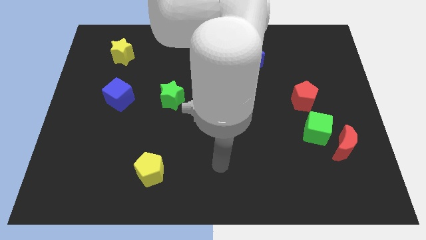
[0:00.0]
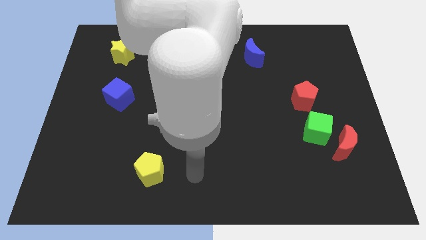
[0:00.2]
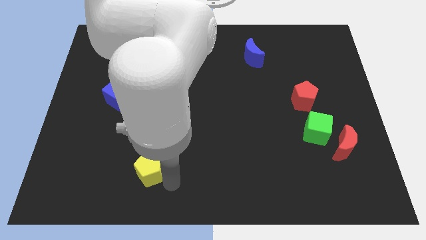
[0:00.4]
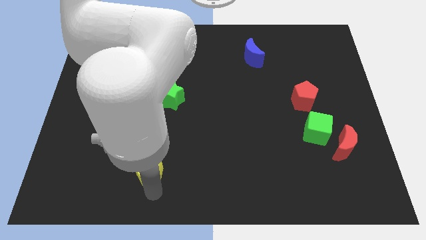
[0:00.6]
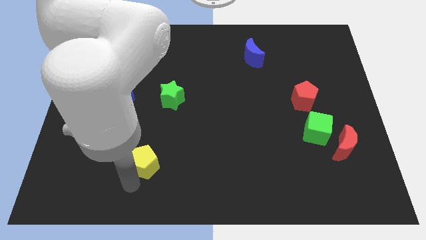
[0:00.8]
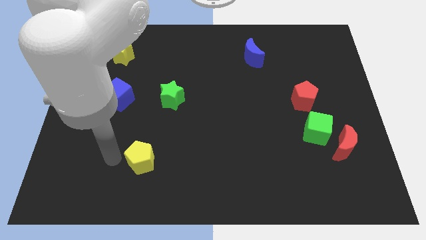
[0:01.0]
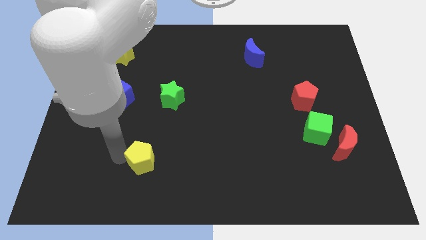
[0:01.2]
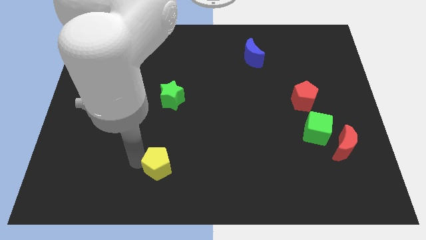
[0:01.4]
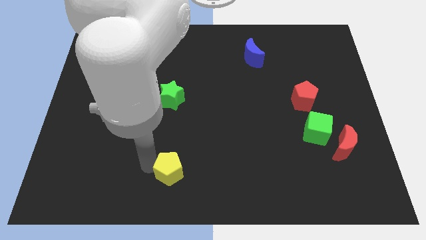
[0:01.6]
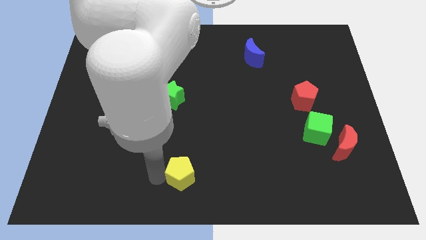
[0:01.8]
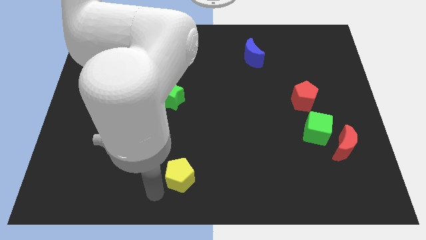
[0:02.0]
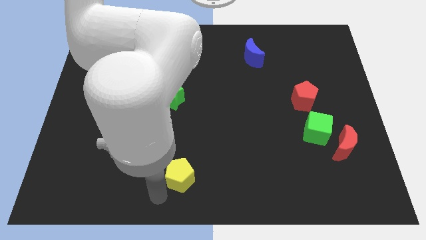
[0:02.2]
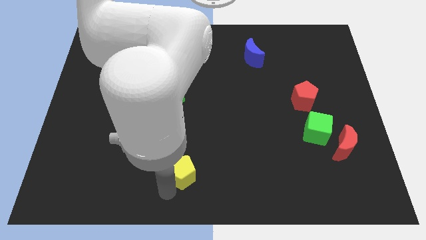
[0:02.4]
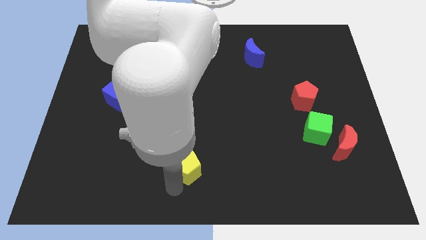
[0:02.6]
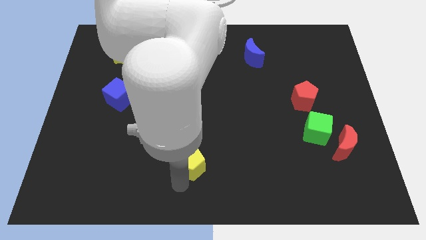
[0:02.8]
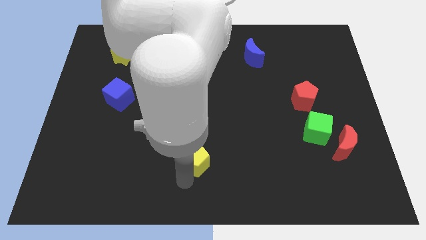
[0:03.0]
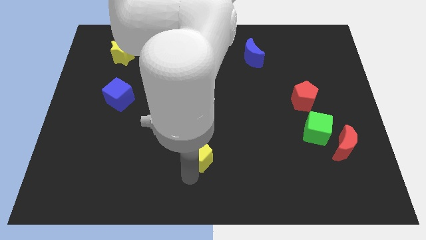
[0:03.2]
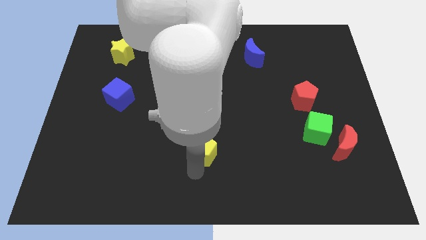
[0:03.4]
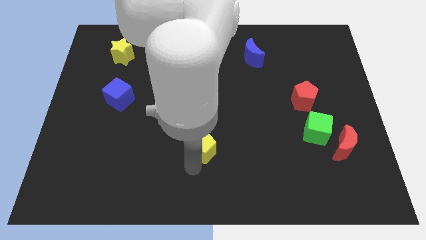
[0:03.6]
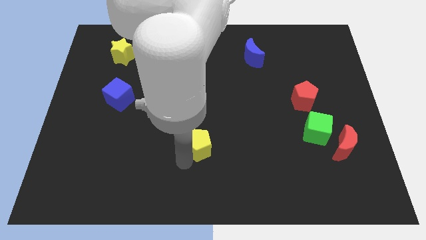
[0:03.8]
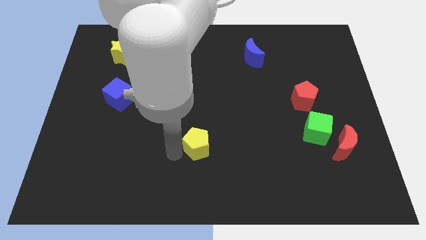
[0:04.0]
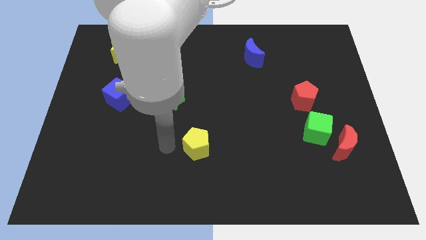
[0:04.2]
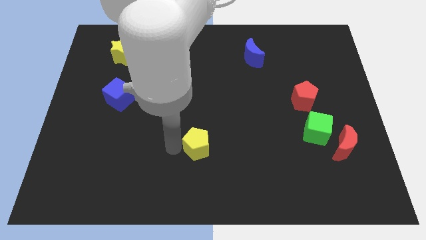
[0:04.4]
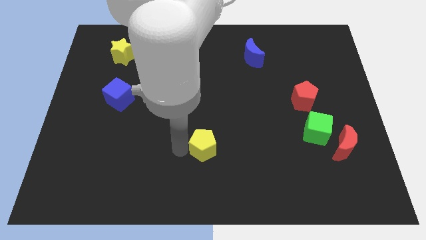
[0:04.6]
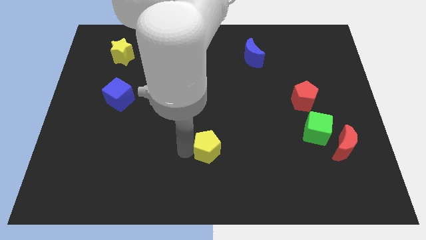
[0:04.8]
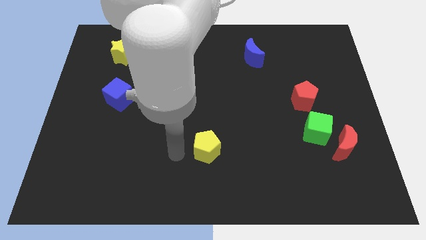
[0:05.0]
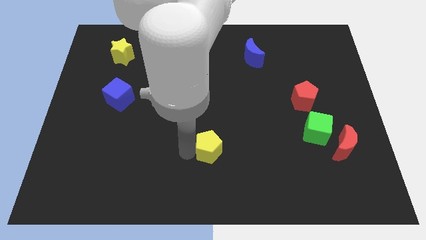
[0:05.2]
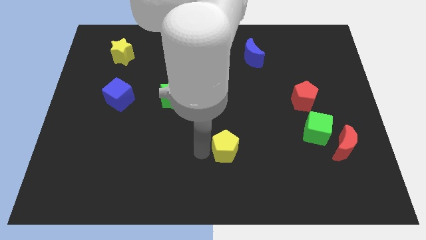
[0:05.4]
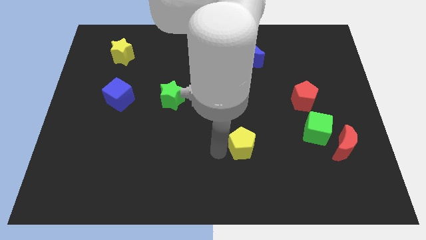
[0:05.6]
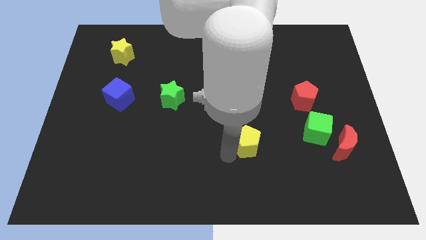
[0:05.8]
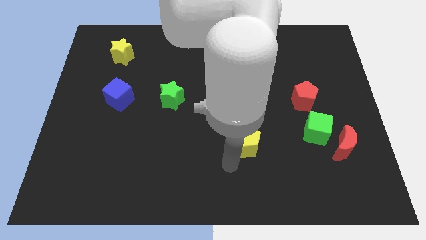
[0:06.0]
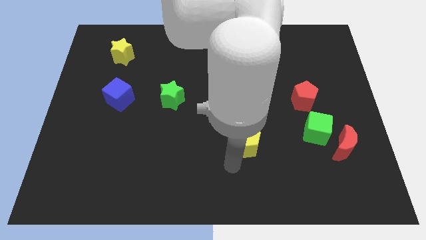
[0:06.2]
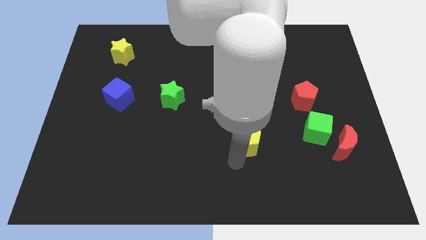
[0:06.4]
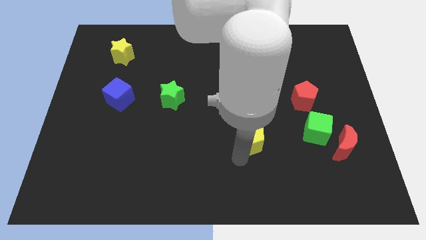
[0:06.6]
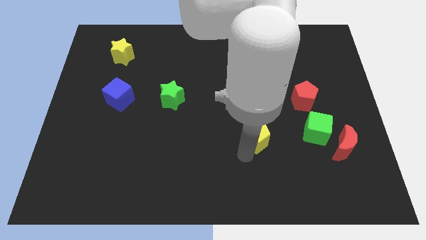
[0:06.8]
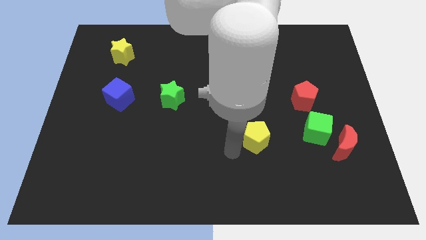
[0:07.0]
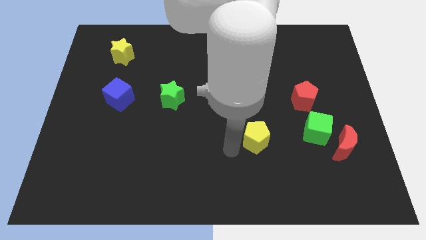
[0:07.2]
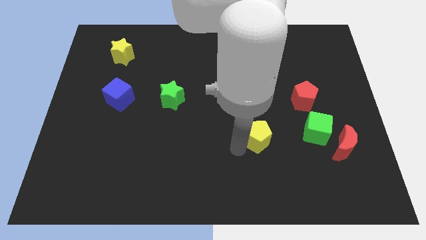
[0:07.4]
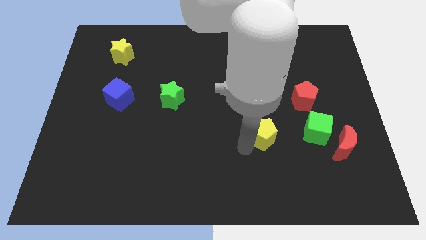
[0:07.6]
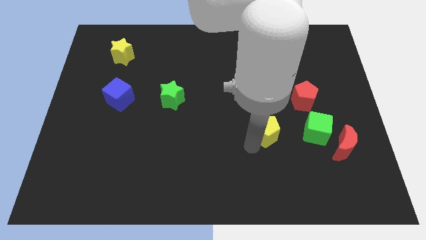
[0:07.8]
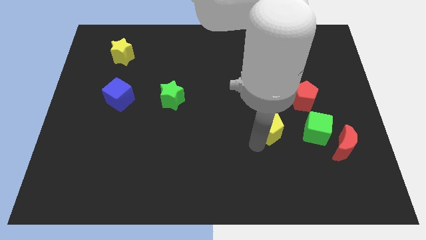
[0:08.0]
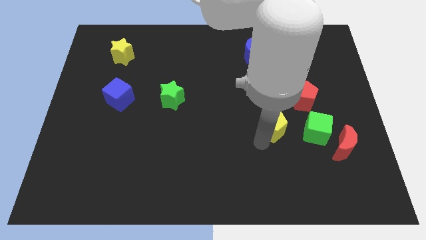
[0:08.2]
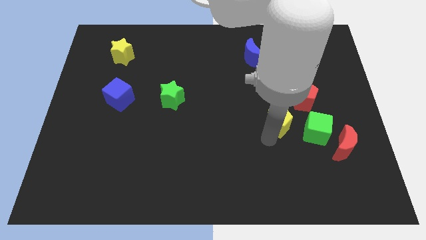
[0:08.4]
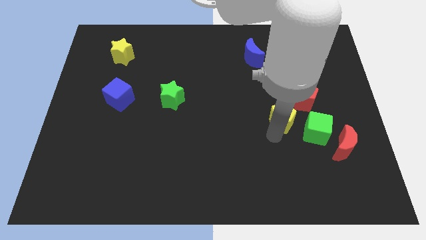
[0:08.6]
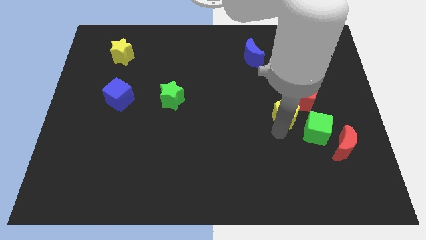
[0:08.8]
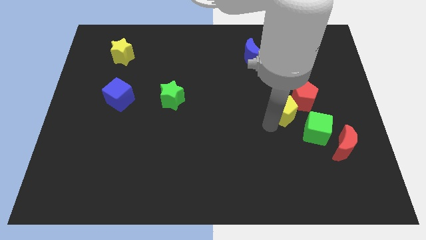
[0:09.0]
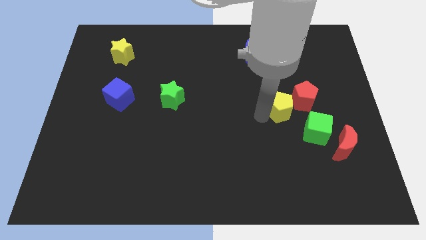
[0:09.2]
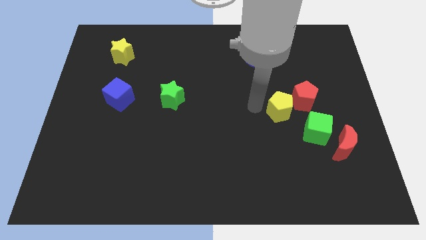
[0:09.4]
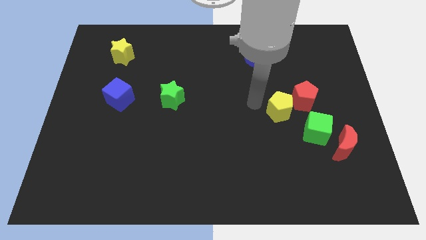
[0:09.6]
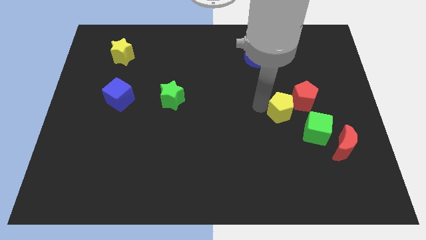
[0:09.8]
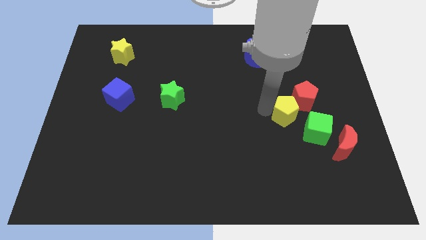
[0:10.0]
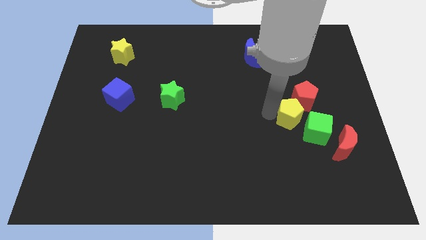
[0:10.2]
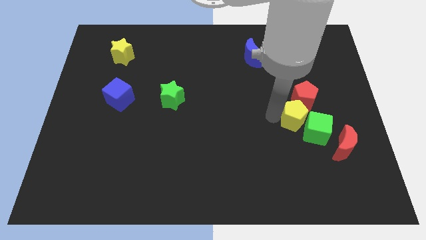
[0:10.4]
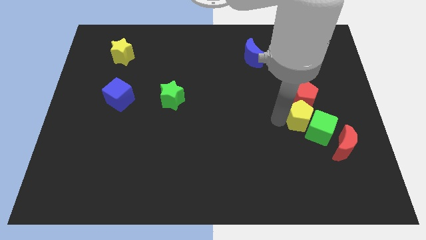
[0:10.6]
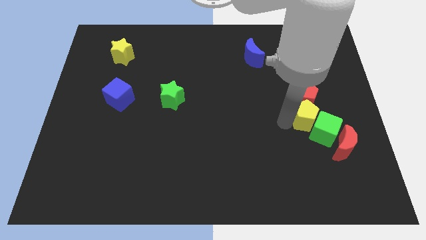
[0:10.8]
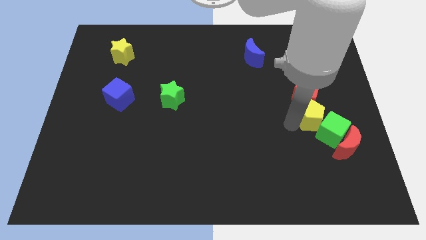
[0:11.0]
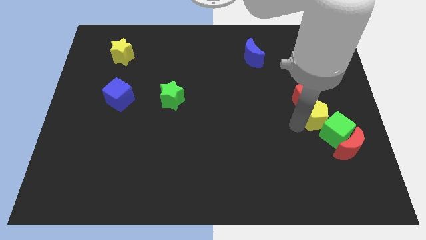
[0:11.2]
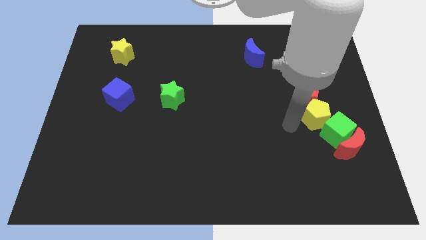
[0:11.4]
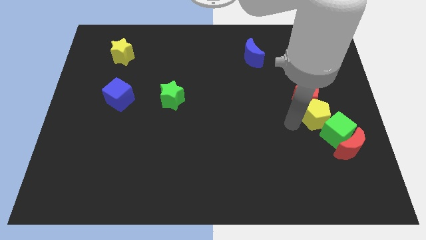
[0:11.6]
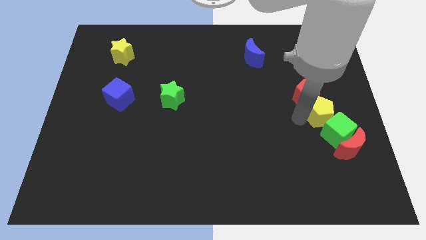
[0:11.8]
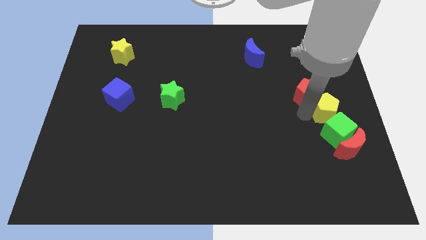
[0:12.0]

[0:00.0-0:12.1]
slide the yellow pentagon to the center right
